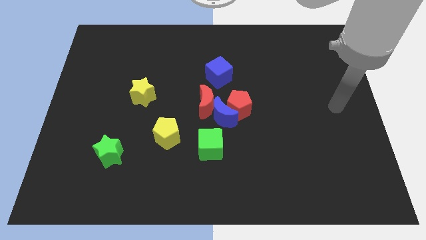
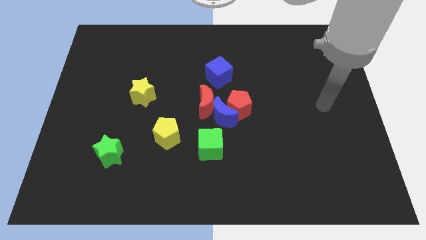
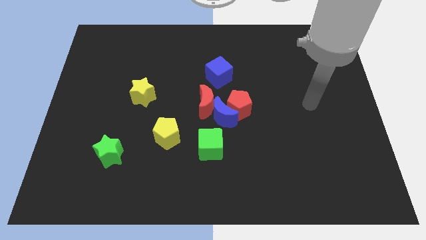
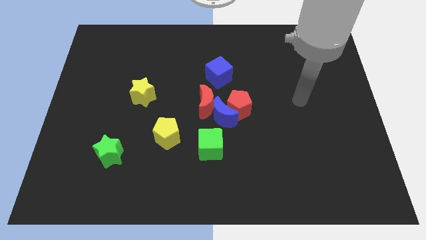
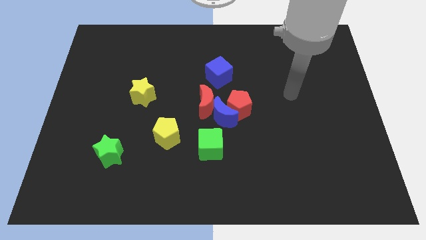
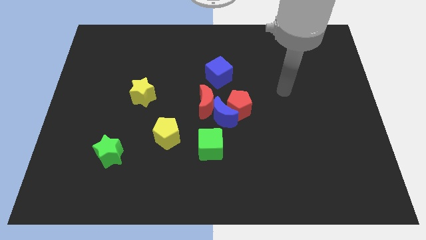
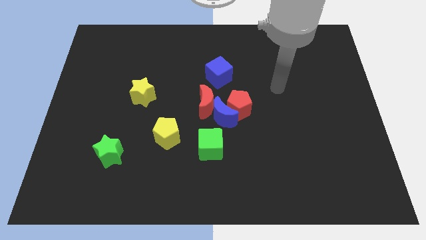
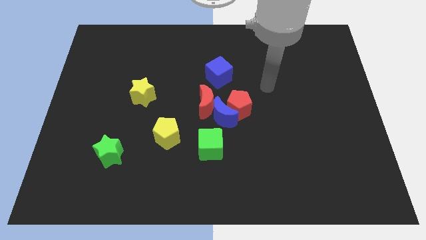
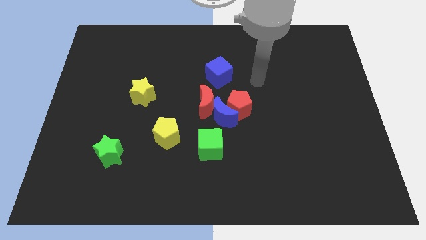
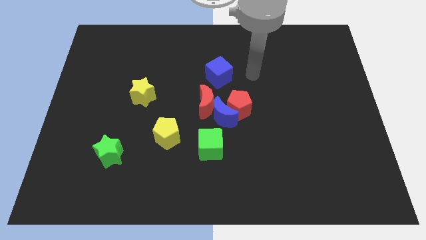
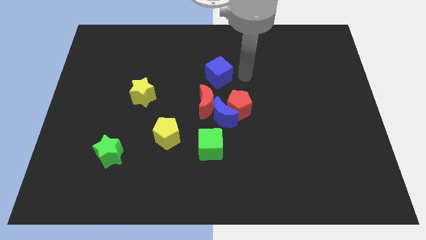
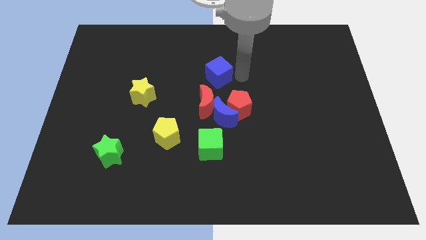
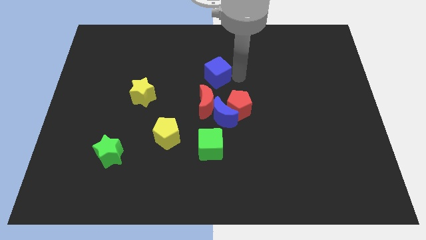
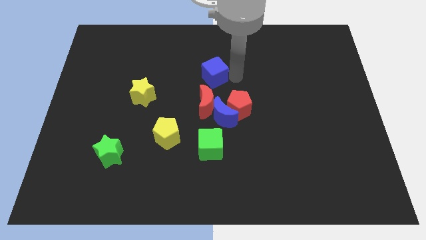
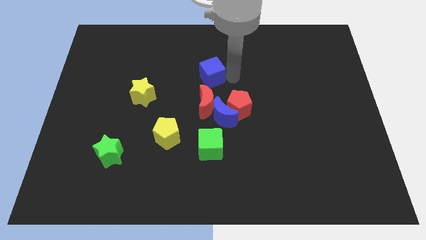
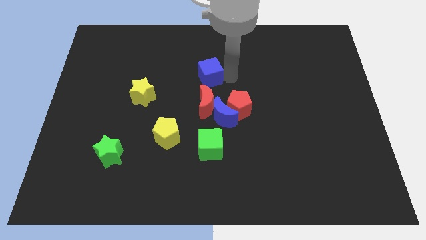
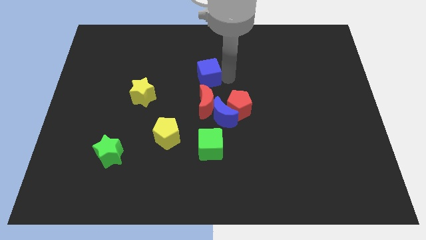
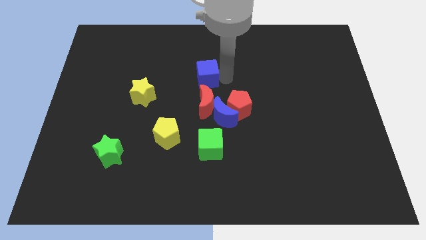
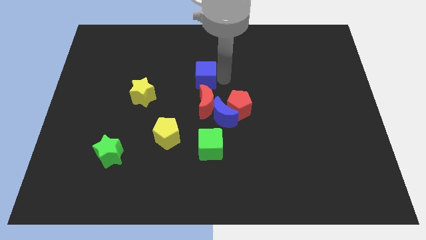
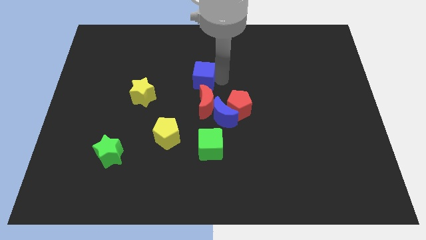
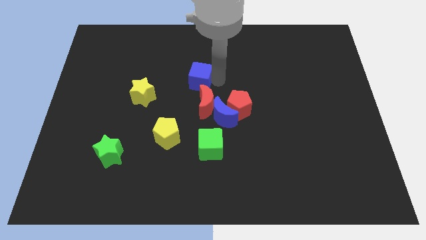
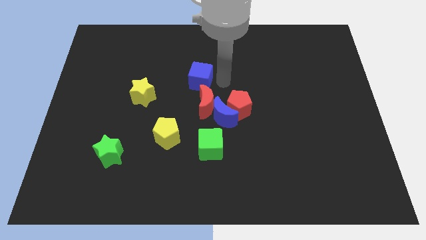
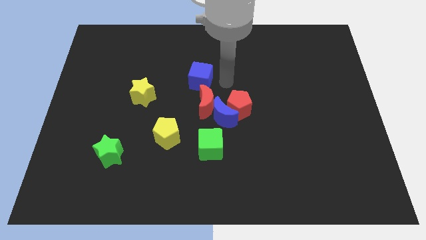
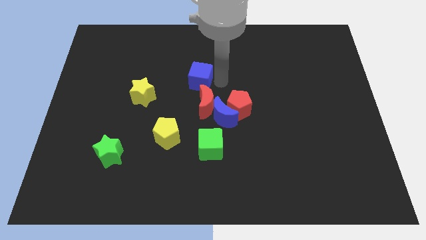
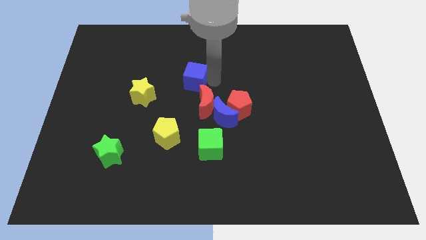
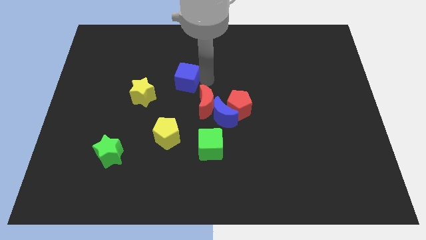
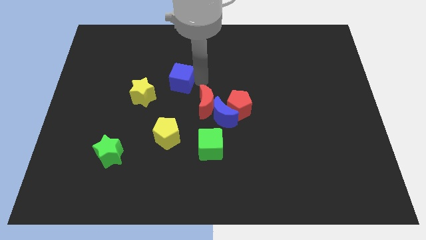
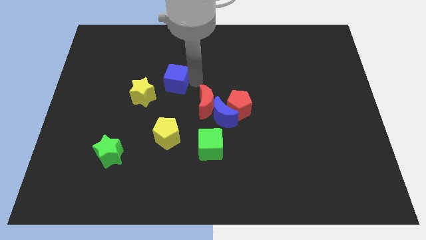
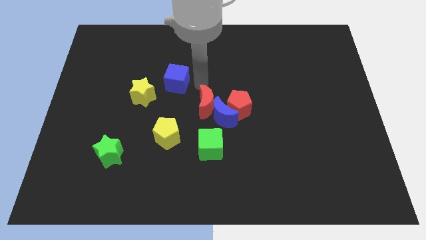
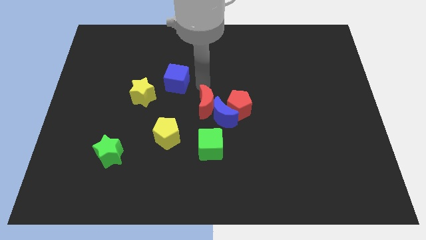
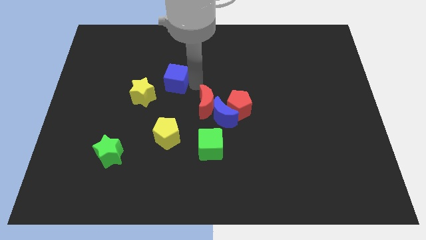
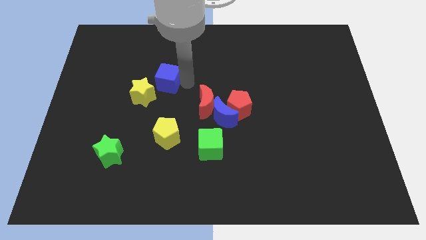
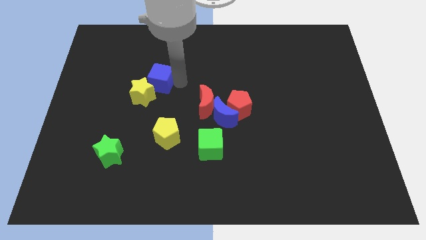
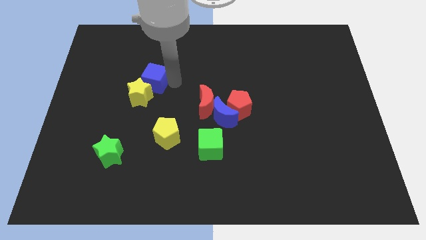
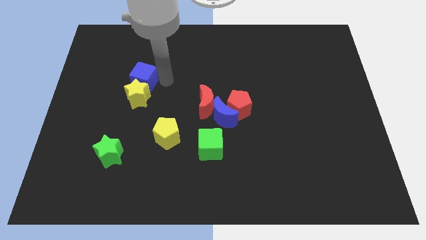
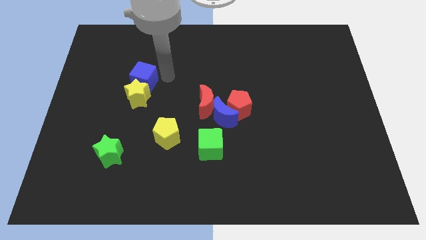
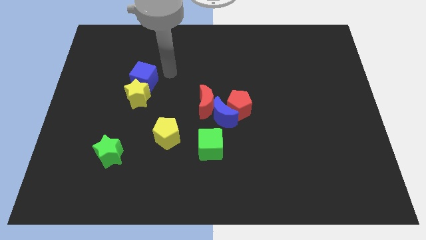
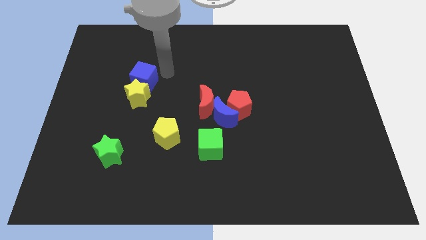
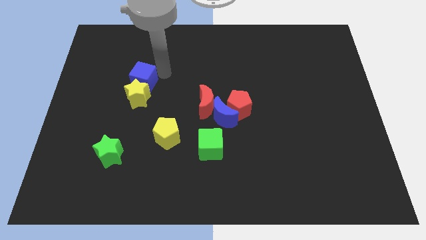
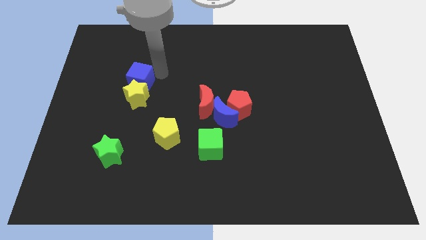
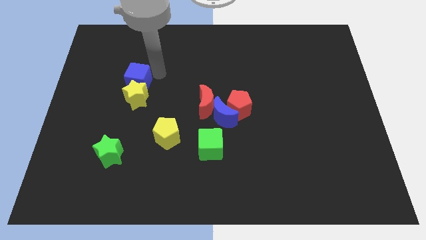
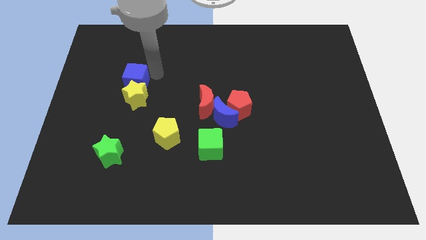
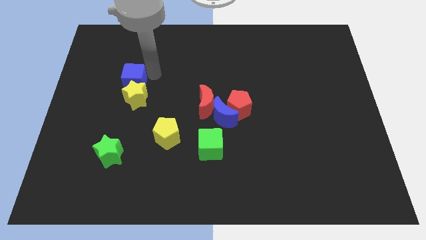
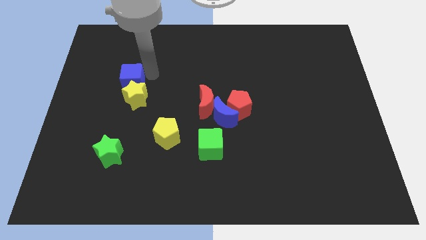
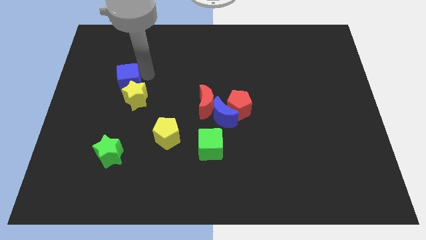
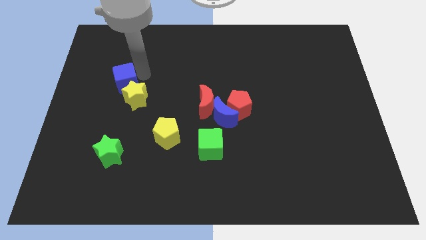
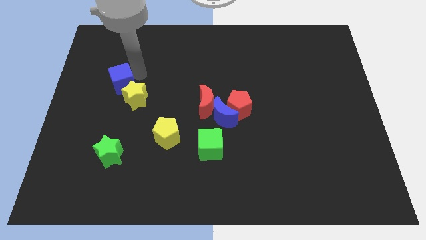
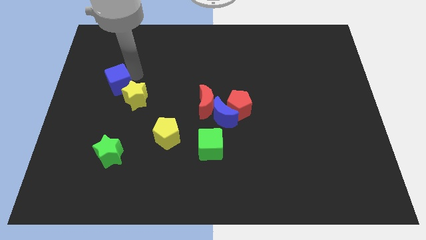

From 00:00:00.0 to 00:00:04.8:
put the blue cube to the left side of the yellow star

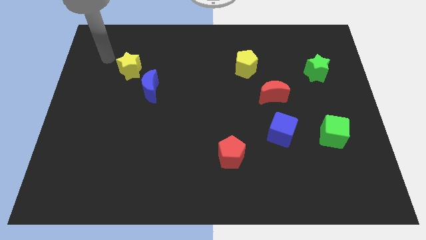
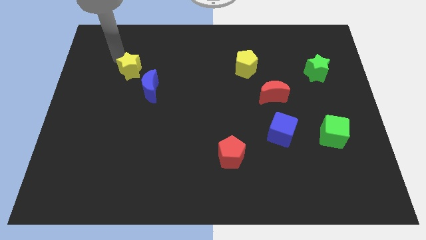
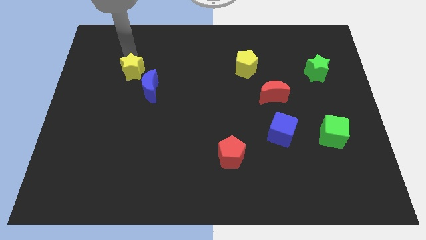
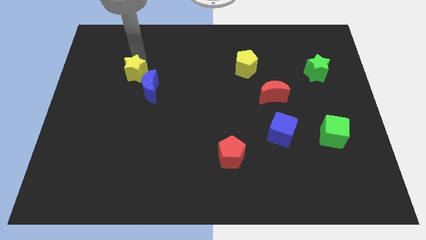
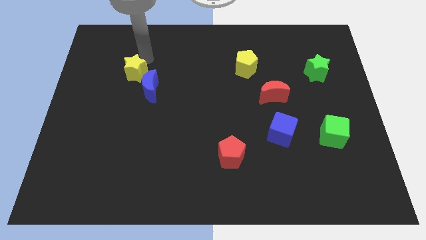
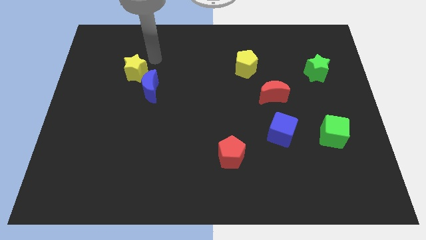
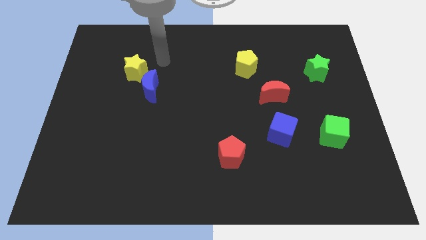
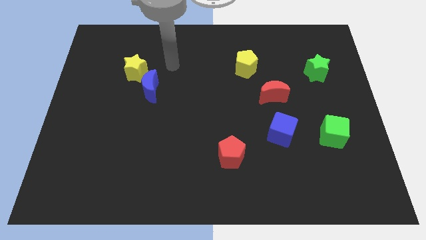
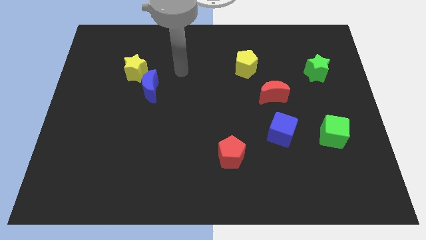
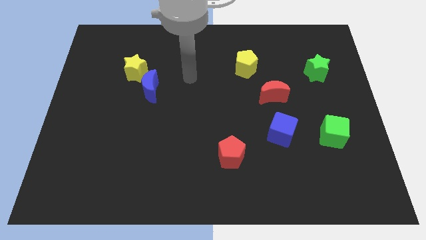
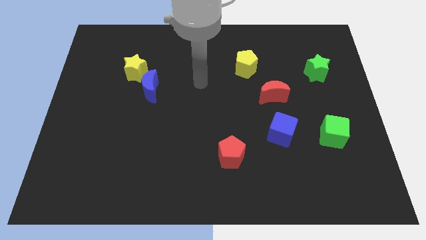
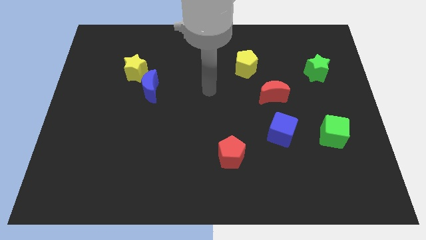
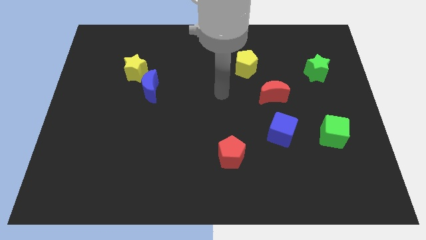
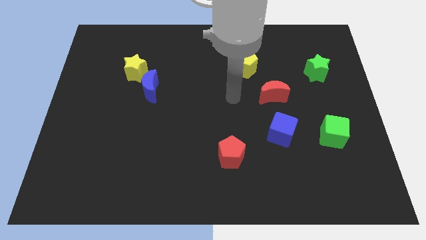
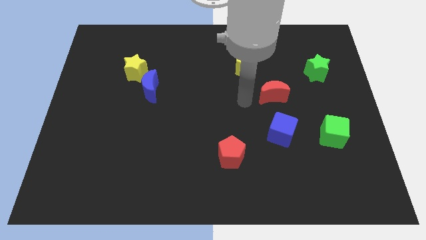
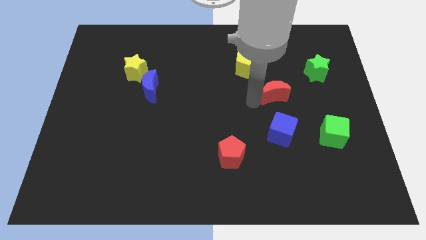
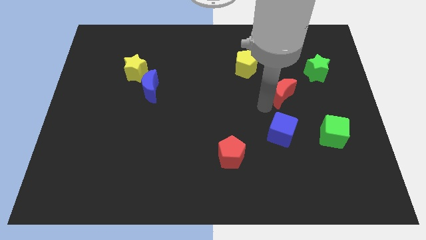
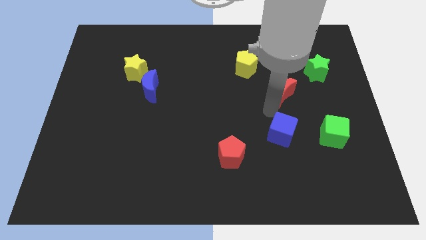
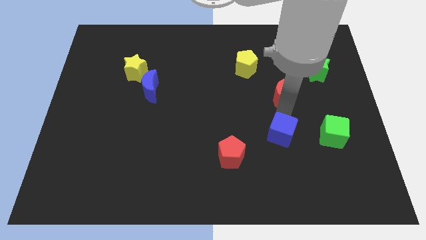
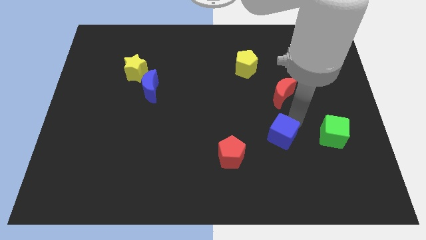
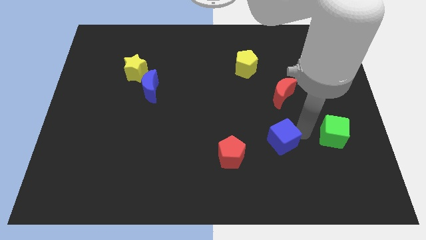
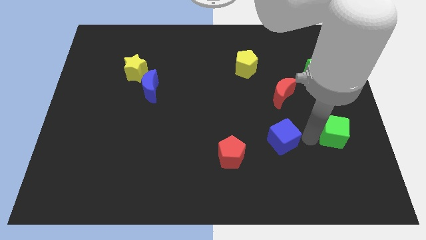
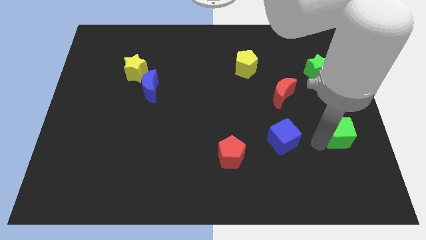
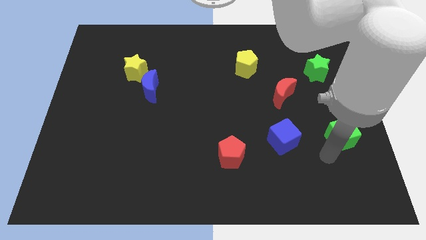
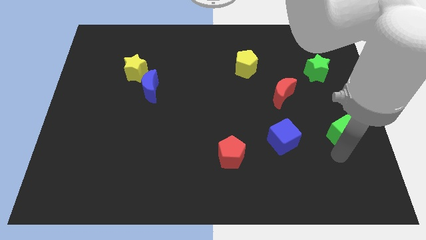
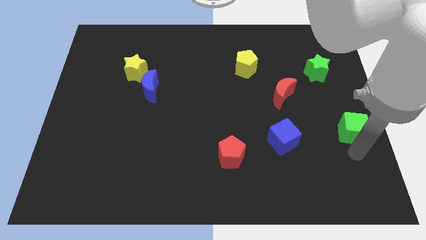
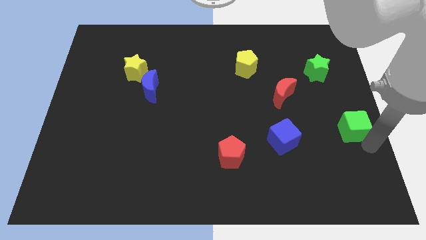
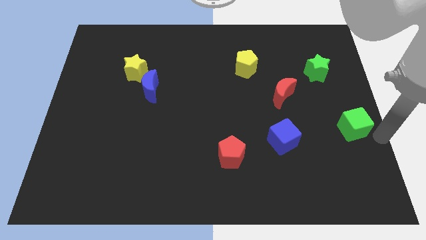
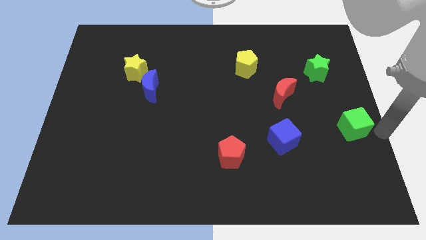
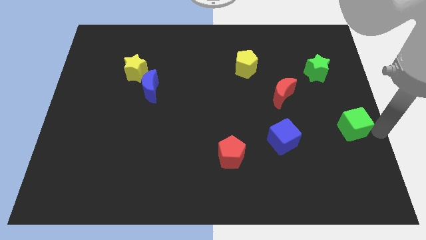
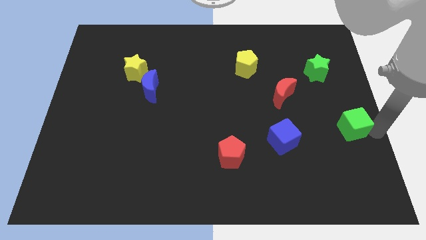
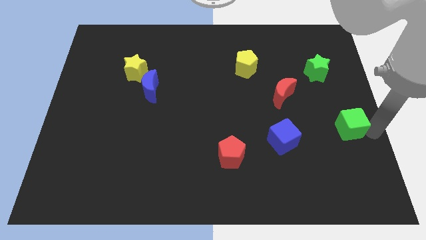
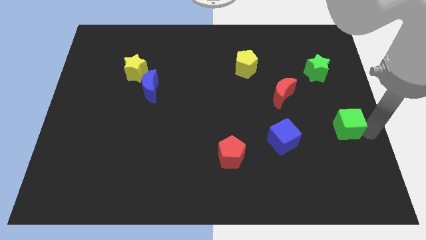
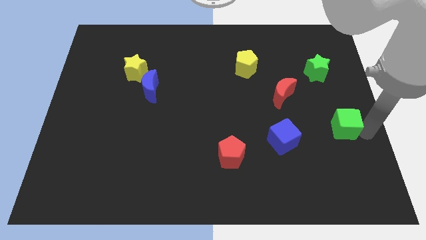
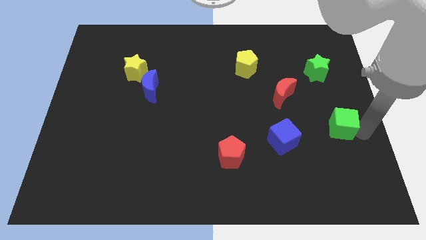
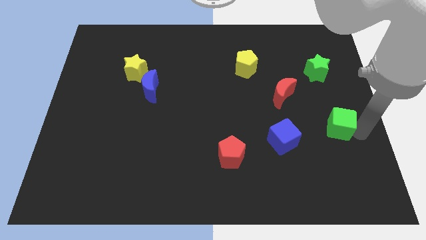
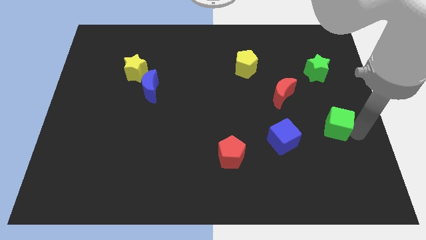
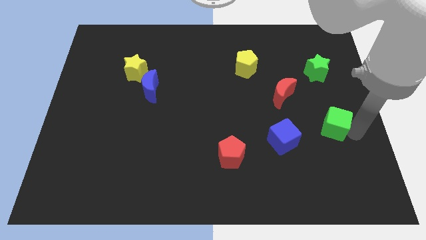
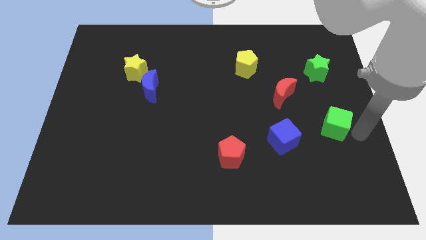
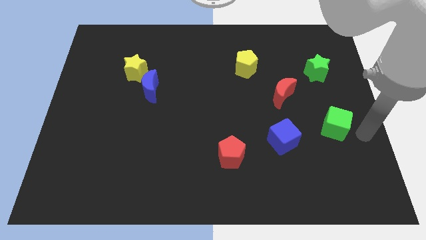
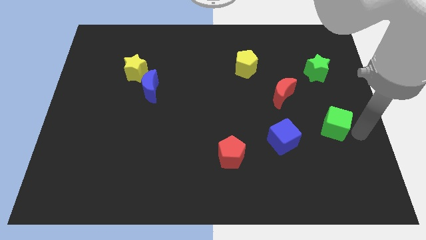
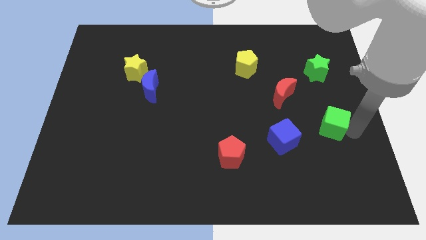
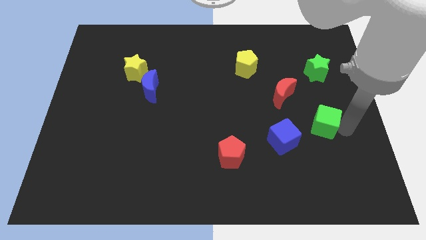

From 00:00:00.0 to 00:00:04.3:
slide the green cube diagonally up and to the right of the blue cube
